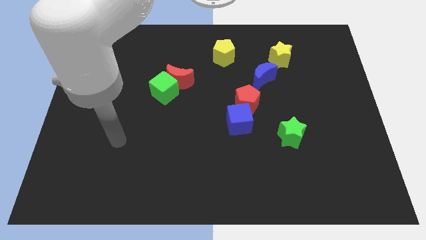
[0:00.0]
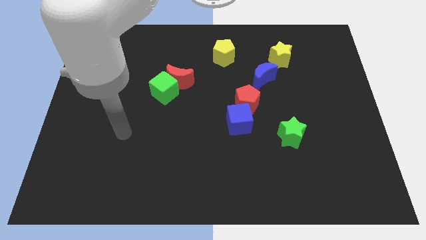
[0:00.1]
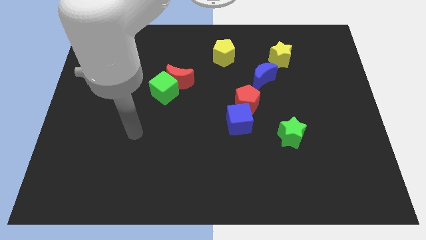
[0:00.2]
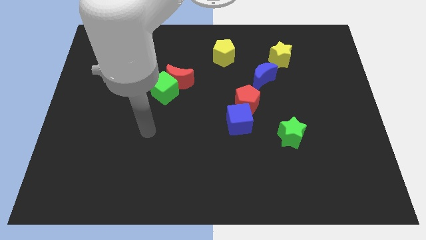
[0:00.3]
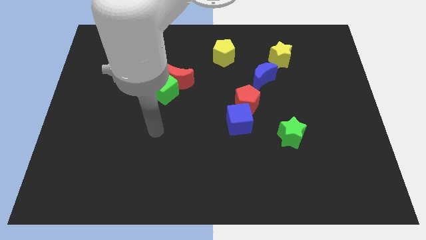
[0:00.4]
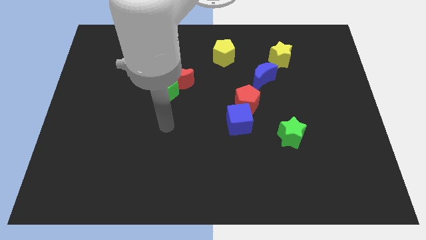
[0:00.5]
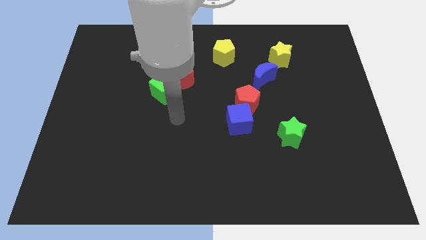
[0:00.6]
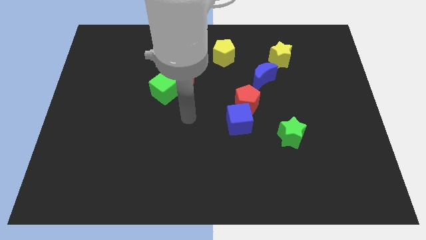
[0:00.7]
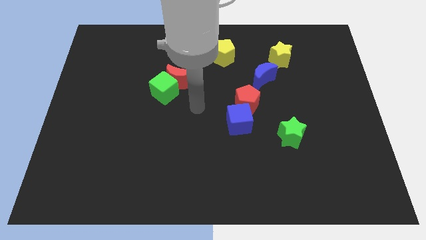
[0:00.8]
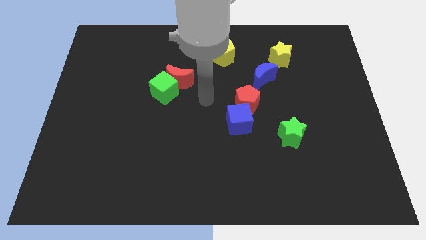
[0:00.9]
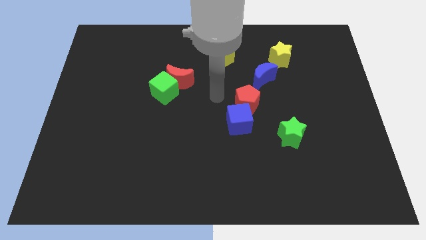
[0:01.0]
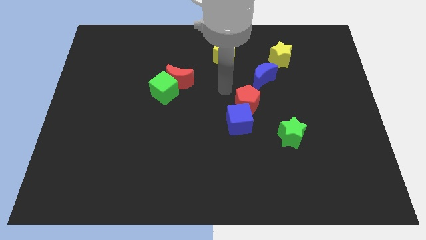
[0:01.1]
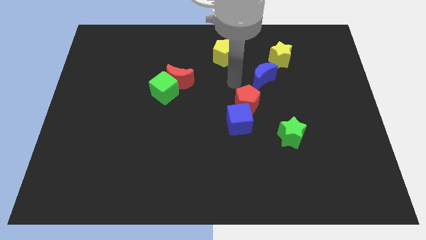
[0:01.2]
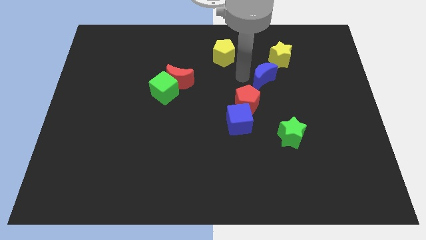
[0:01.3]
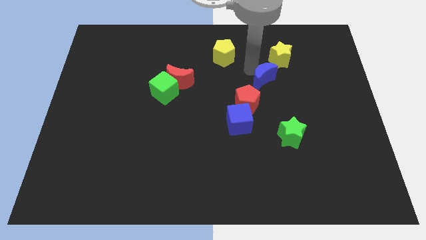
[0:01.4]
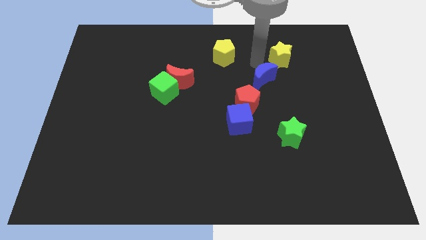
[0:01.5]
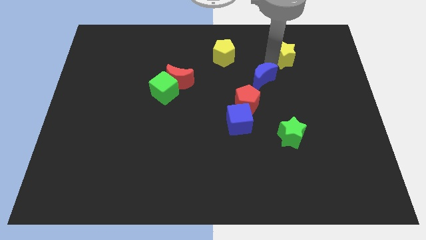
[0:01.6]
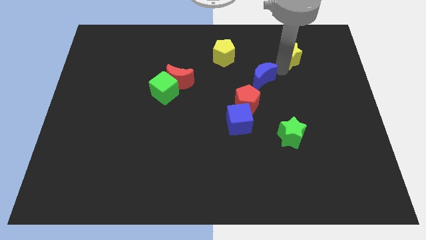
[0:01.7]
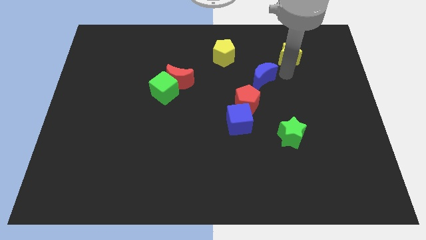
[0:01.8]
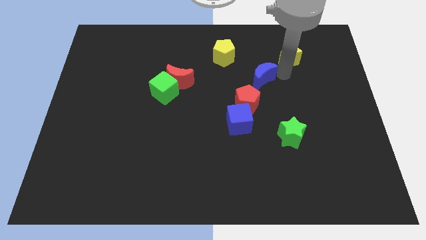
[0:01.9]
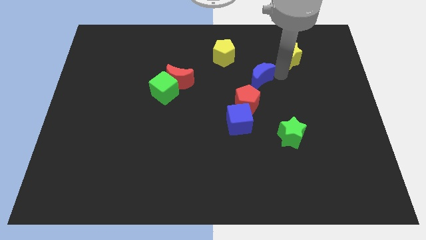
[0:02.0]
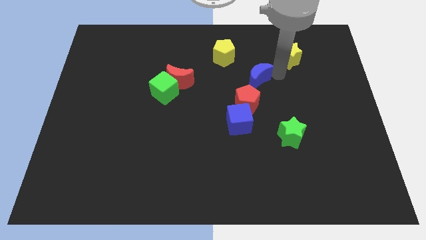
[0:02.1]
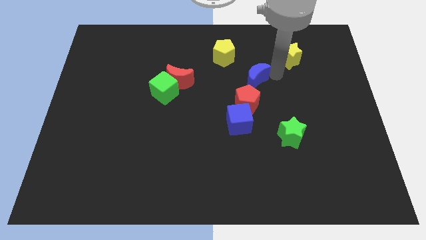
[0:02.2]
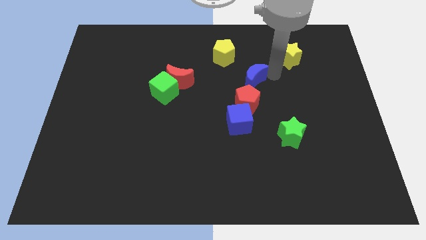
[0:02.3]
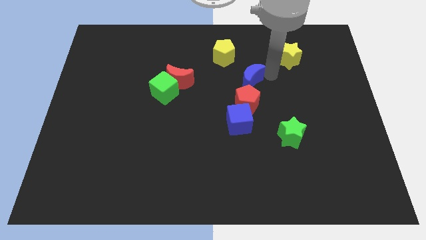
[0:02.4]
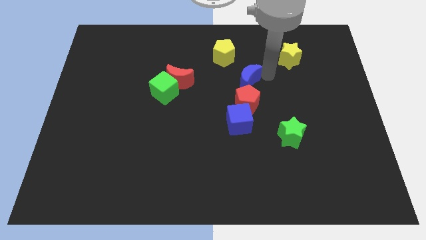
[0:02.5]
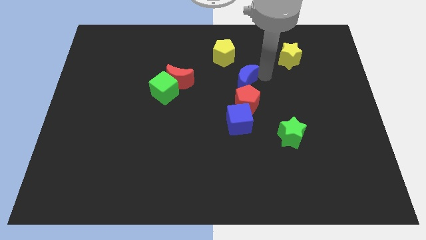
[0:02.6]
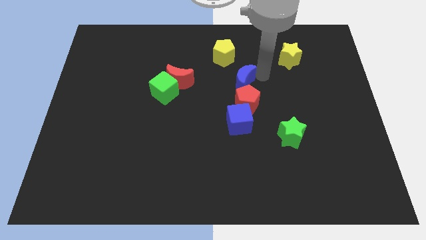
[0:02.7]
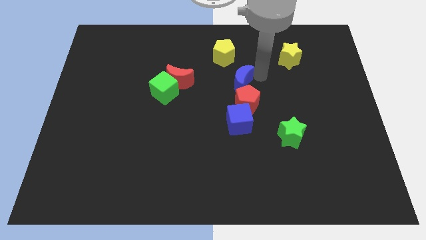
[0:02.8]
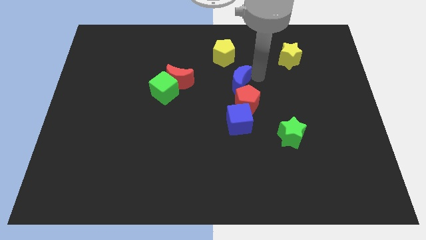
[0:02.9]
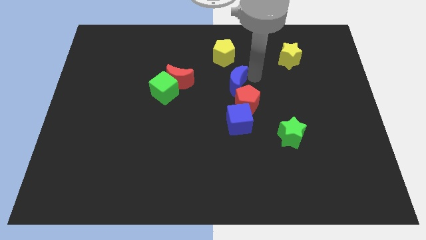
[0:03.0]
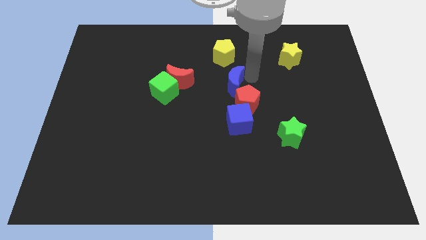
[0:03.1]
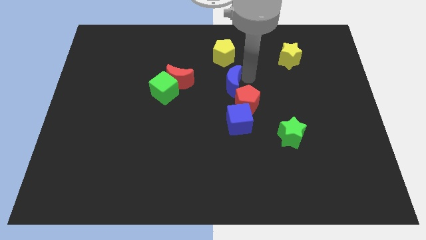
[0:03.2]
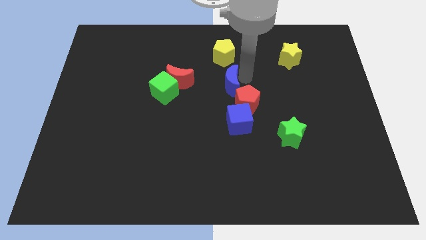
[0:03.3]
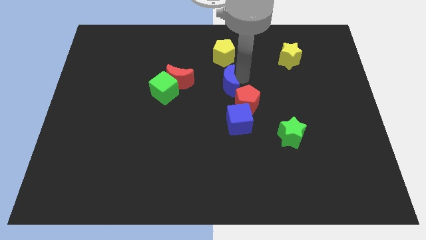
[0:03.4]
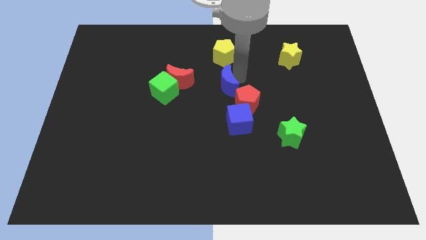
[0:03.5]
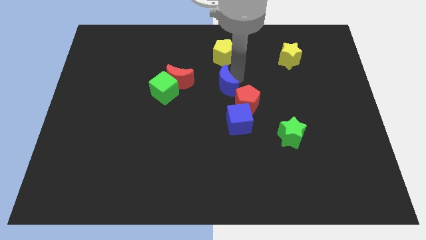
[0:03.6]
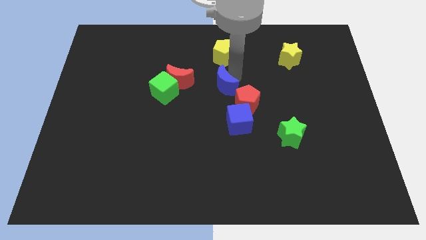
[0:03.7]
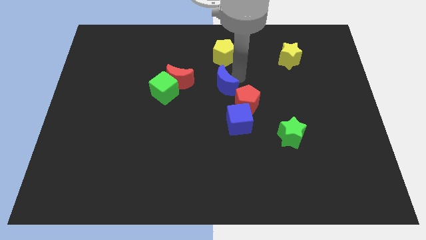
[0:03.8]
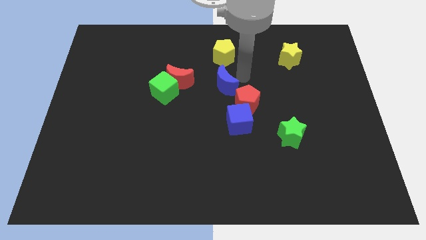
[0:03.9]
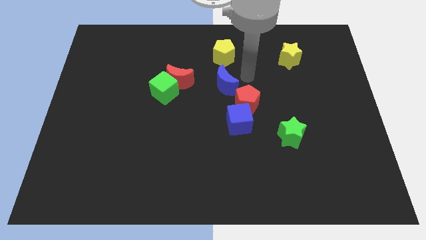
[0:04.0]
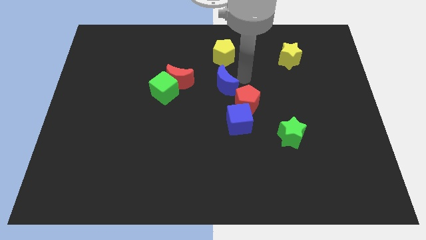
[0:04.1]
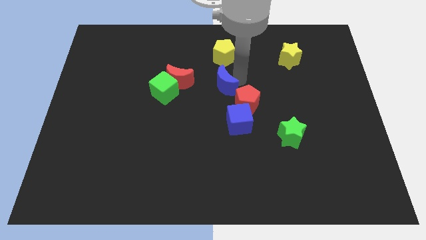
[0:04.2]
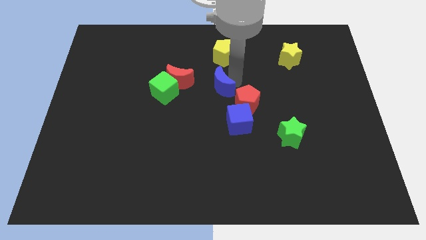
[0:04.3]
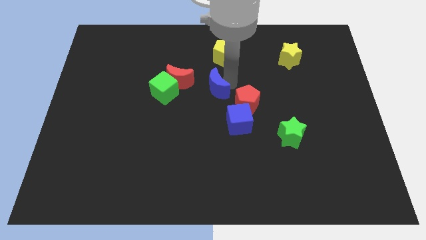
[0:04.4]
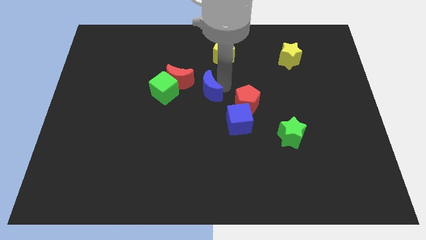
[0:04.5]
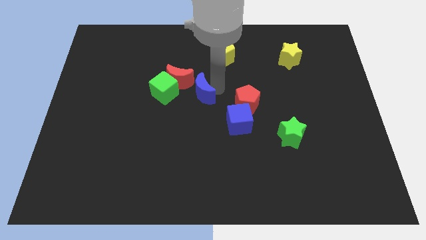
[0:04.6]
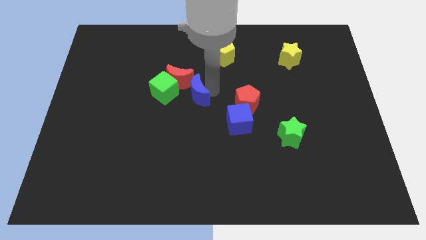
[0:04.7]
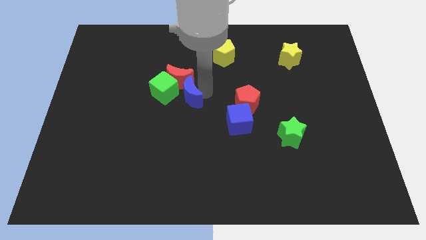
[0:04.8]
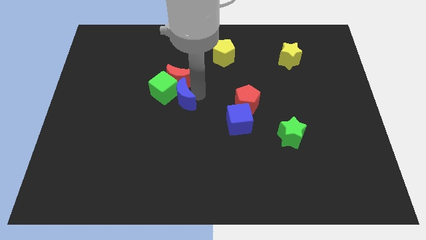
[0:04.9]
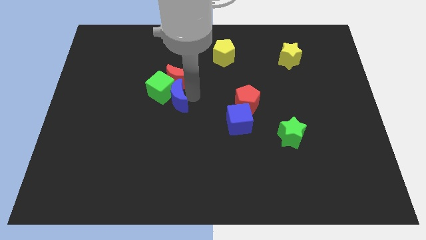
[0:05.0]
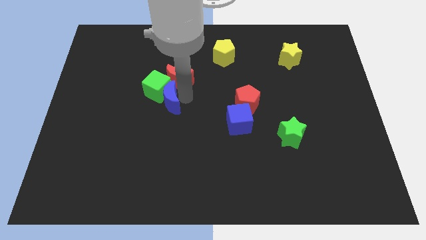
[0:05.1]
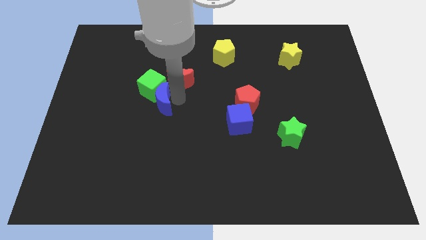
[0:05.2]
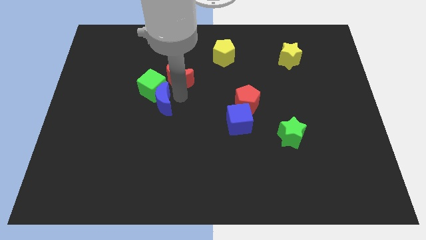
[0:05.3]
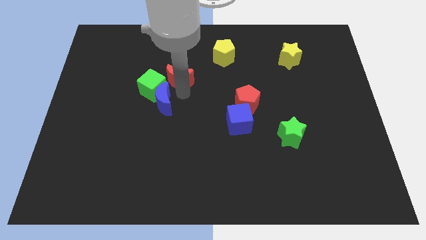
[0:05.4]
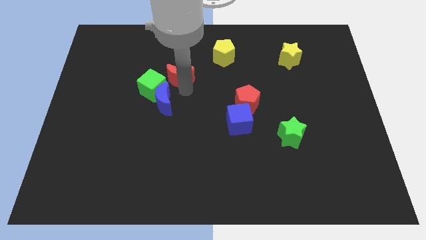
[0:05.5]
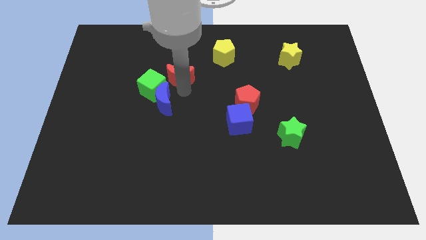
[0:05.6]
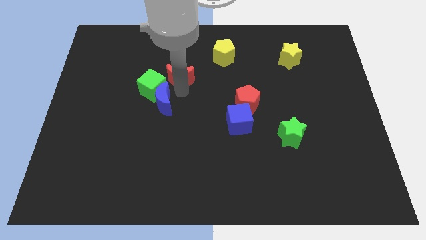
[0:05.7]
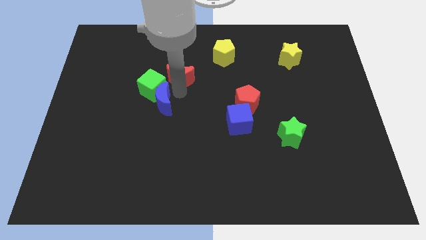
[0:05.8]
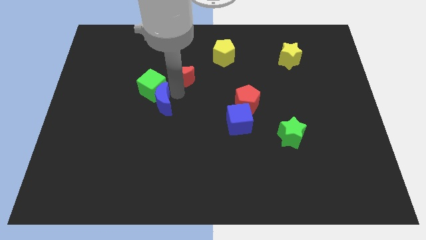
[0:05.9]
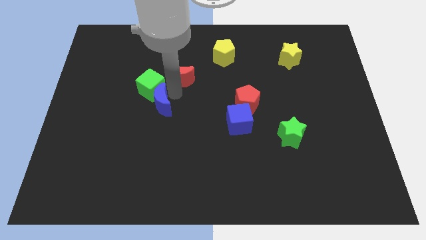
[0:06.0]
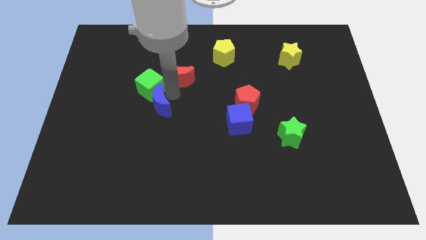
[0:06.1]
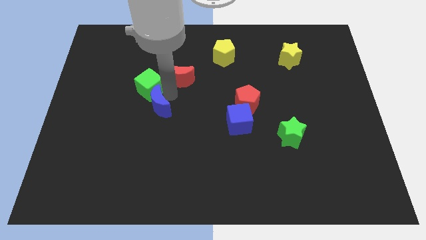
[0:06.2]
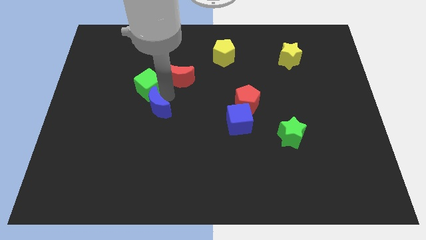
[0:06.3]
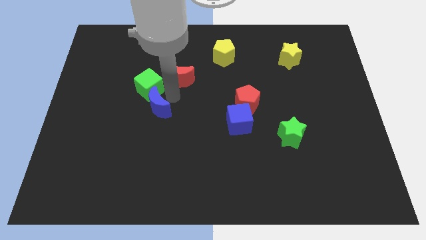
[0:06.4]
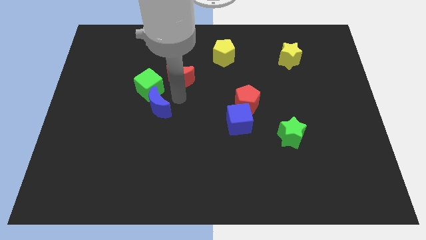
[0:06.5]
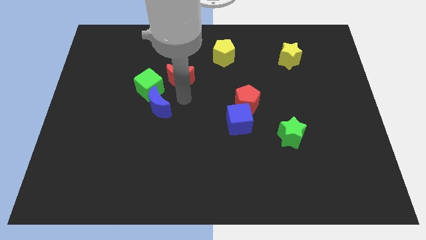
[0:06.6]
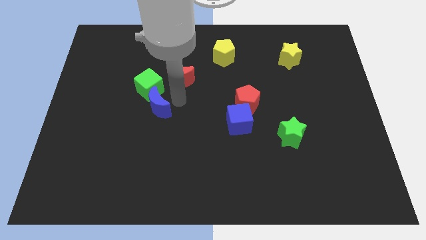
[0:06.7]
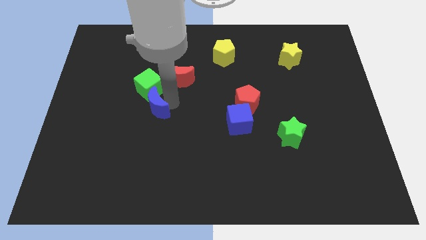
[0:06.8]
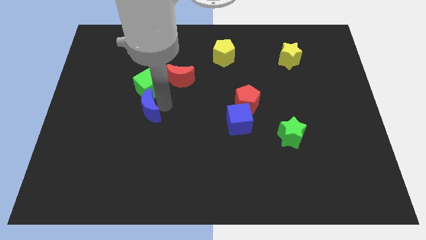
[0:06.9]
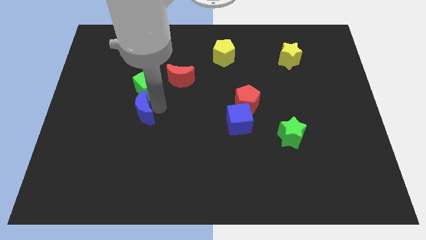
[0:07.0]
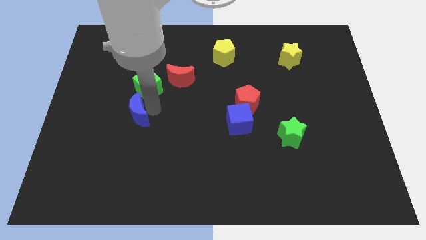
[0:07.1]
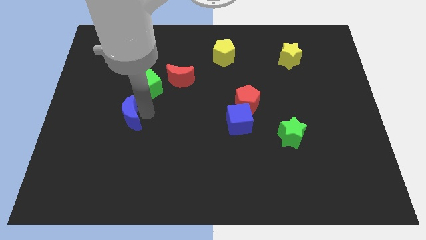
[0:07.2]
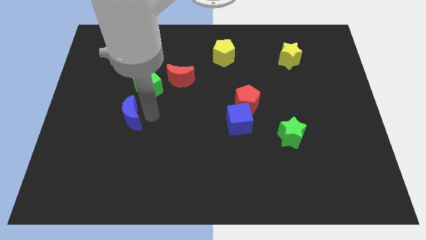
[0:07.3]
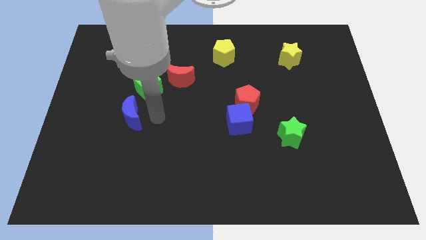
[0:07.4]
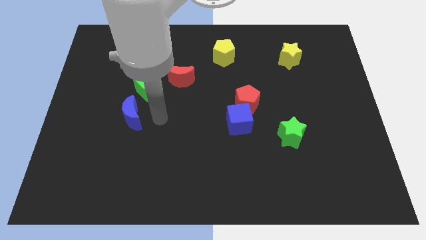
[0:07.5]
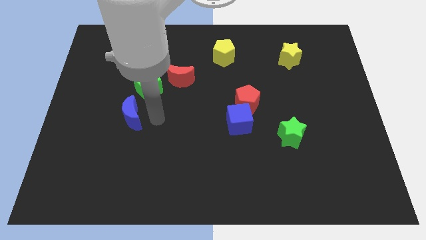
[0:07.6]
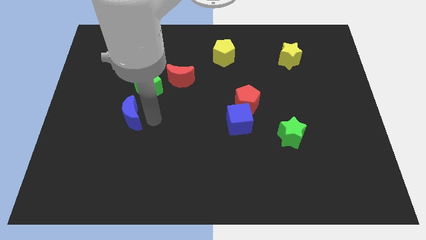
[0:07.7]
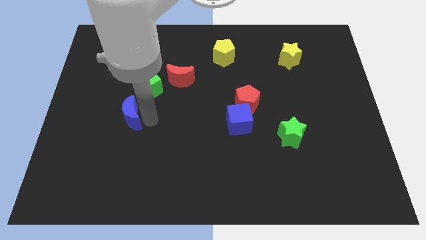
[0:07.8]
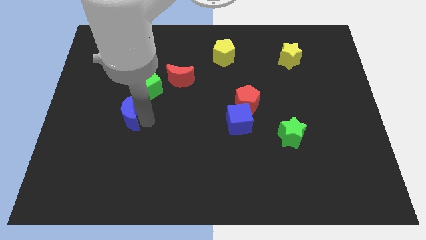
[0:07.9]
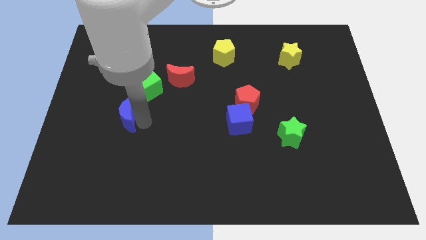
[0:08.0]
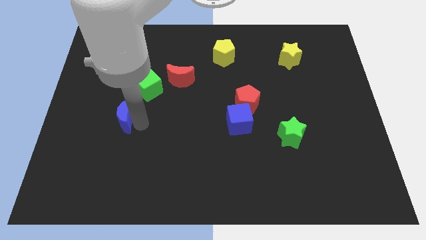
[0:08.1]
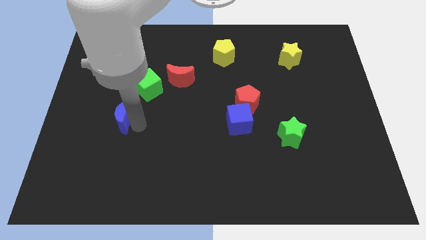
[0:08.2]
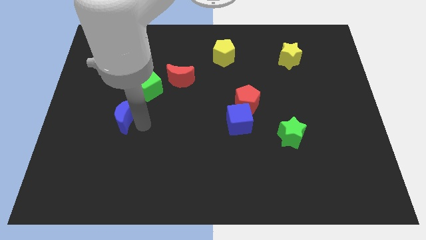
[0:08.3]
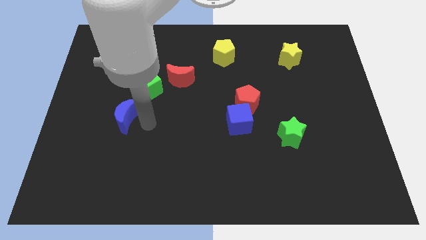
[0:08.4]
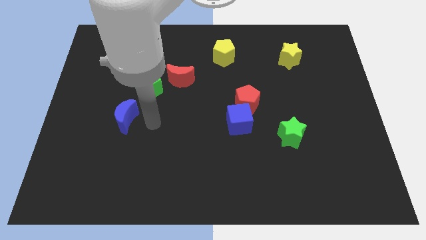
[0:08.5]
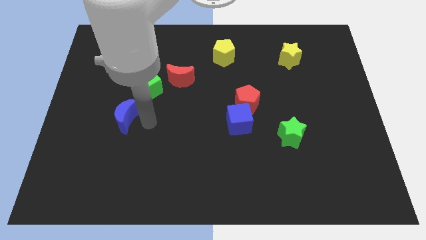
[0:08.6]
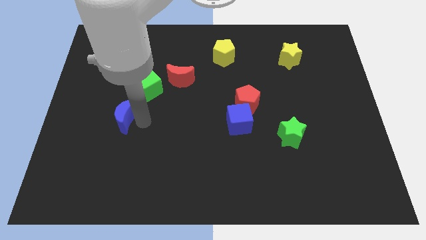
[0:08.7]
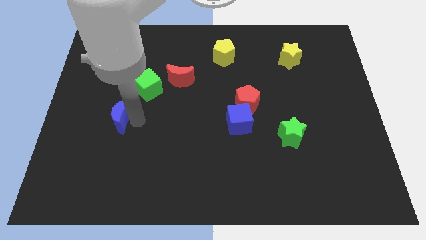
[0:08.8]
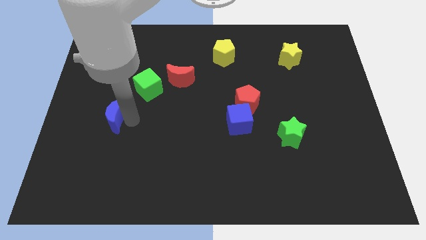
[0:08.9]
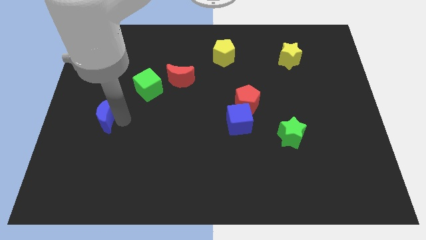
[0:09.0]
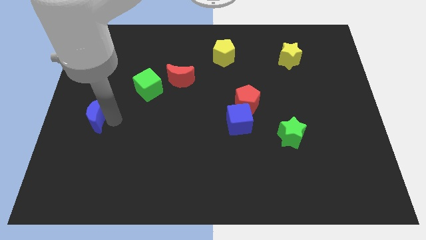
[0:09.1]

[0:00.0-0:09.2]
put the blue moon to the left side of the board
